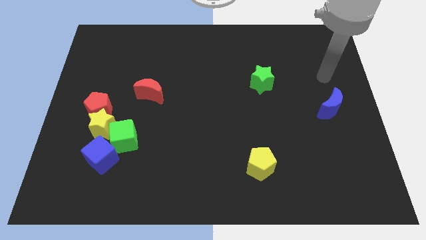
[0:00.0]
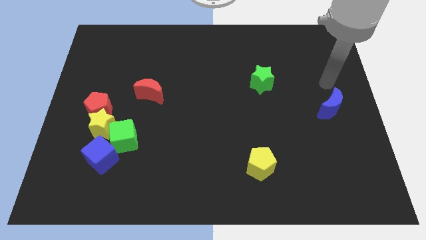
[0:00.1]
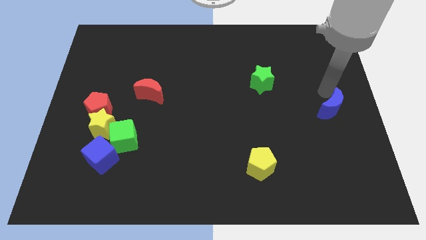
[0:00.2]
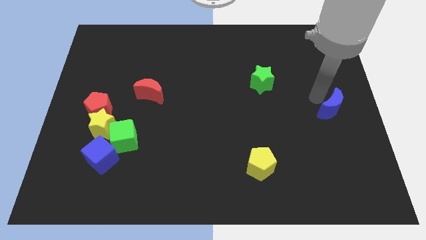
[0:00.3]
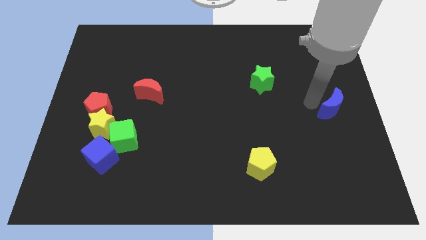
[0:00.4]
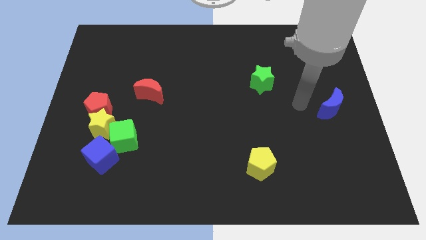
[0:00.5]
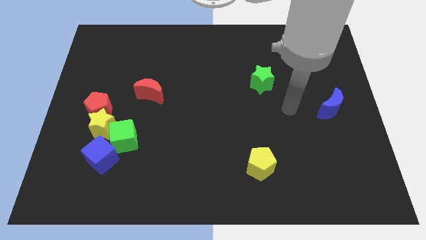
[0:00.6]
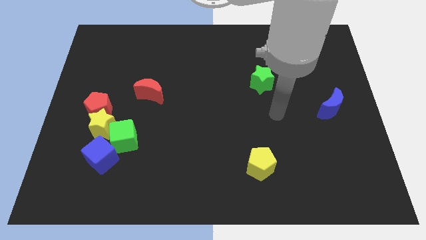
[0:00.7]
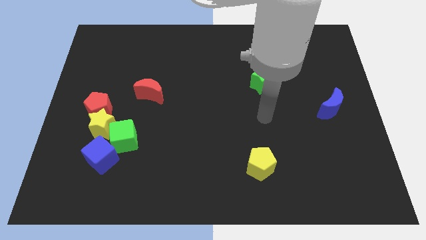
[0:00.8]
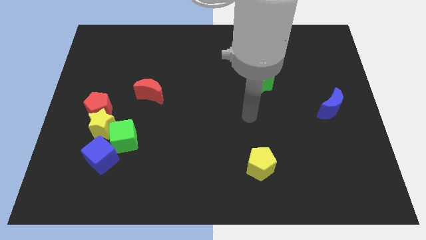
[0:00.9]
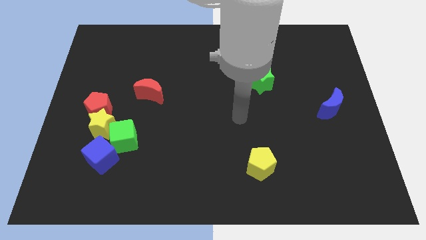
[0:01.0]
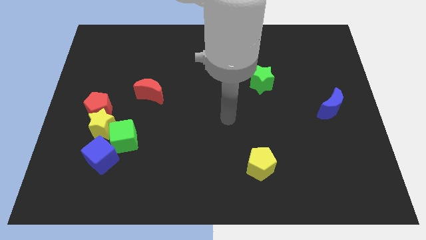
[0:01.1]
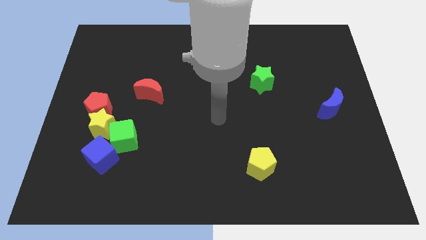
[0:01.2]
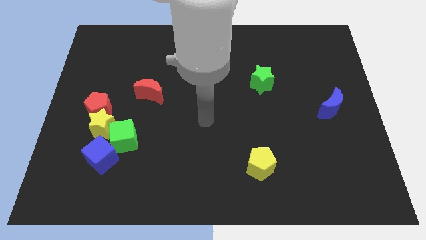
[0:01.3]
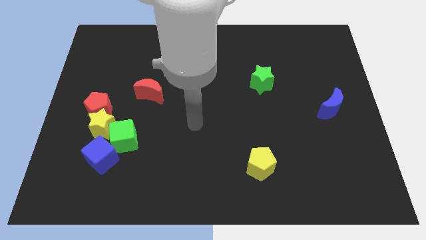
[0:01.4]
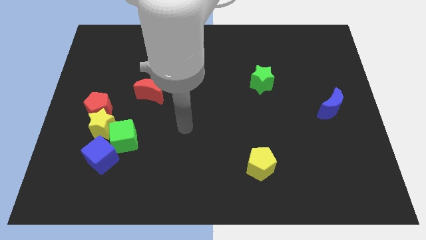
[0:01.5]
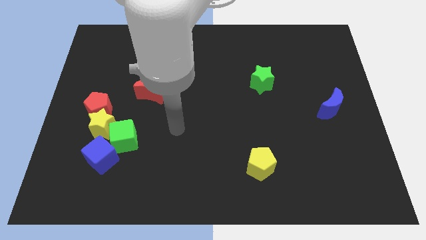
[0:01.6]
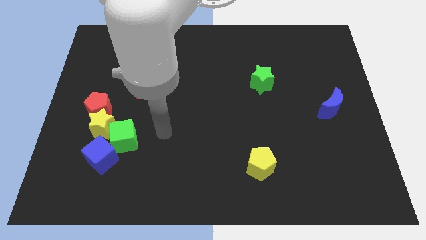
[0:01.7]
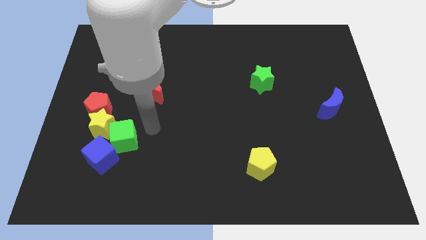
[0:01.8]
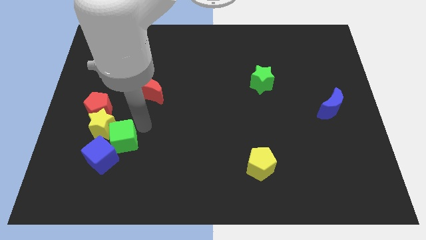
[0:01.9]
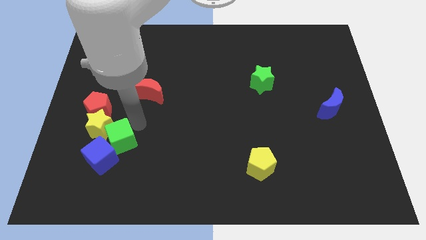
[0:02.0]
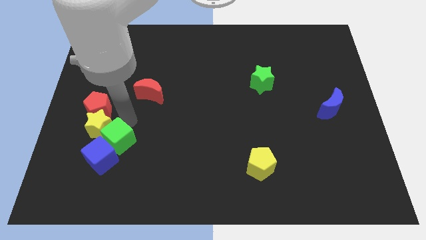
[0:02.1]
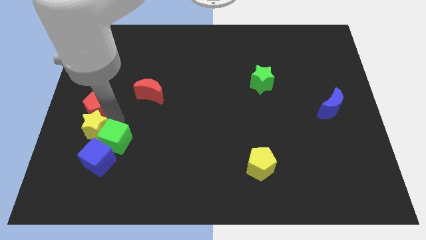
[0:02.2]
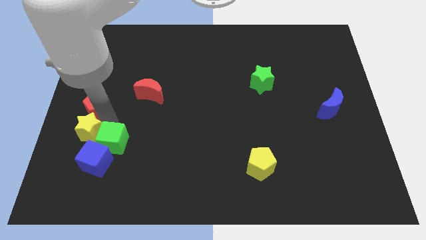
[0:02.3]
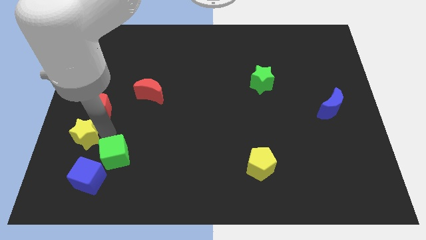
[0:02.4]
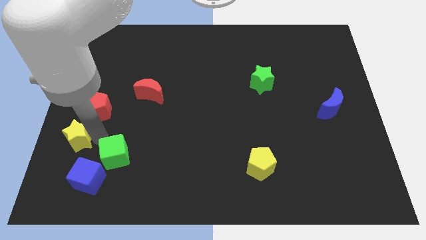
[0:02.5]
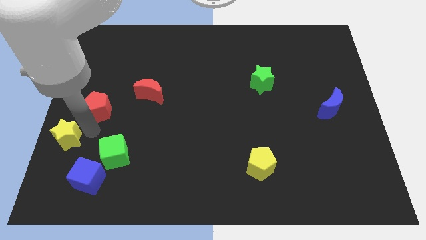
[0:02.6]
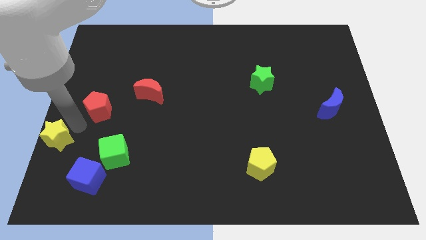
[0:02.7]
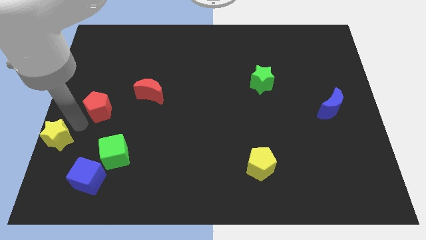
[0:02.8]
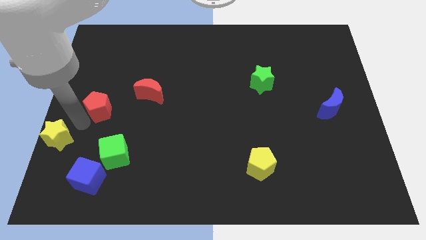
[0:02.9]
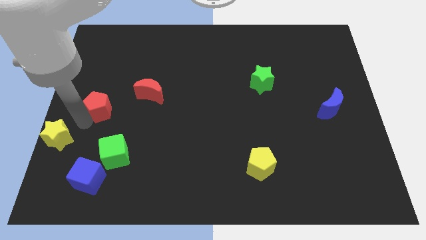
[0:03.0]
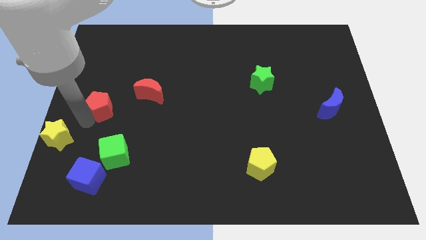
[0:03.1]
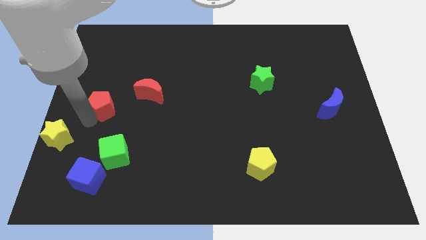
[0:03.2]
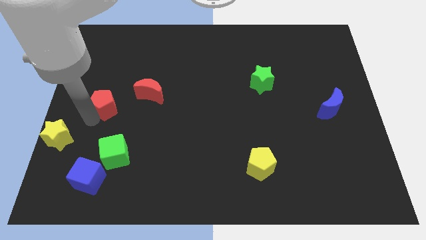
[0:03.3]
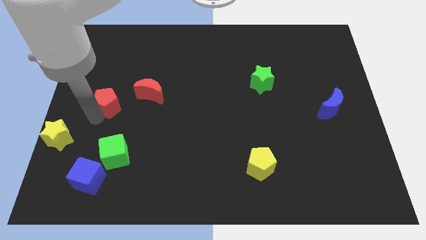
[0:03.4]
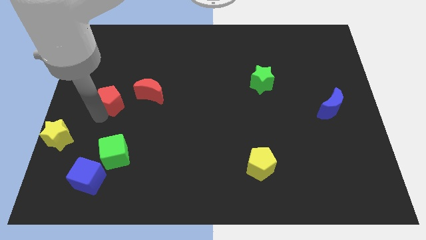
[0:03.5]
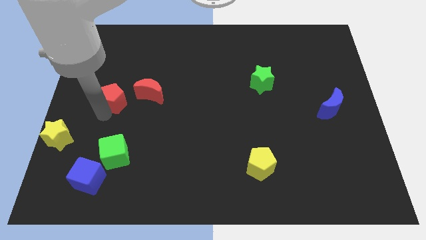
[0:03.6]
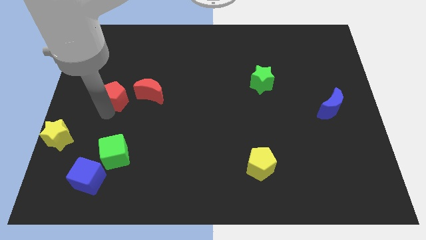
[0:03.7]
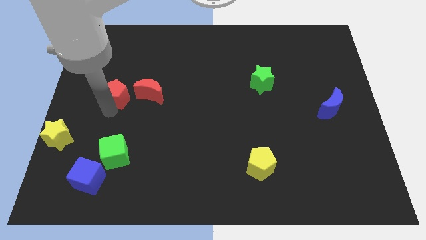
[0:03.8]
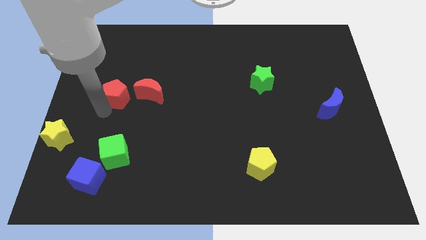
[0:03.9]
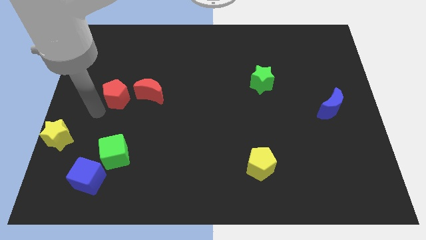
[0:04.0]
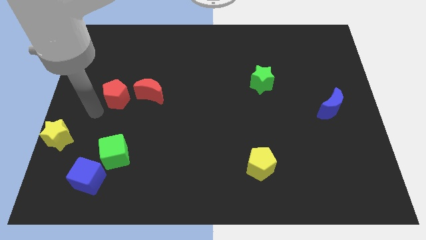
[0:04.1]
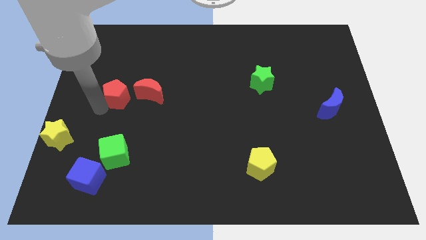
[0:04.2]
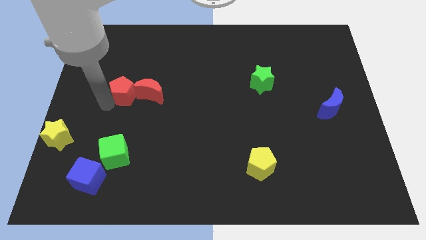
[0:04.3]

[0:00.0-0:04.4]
slightly move the red pentagon up and to the right diagonally

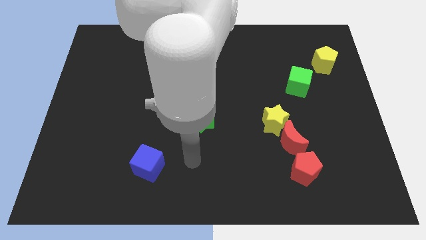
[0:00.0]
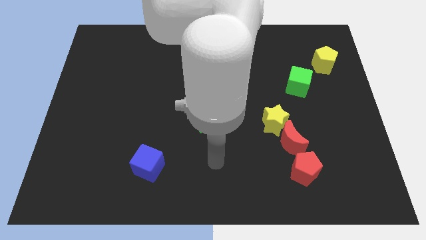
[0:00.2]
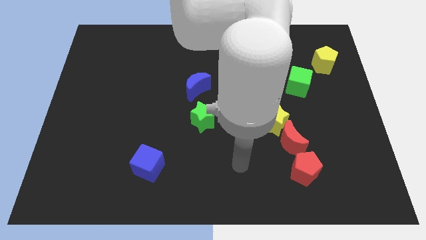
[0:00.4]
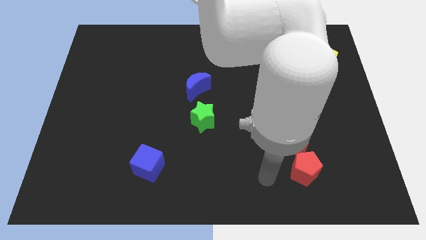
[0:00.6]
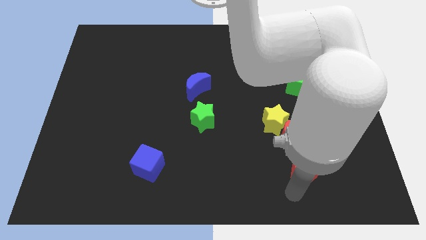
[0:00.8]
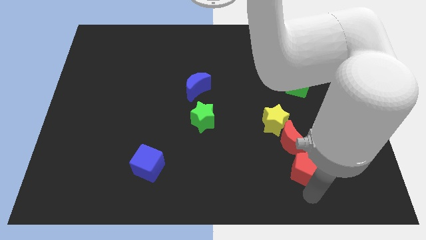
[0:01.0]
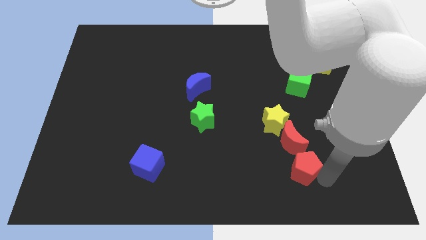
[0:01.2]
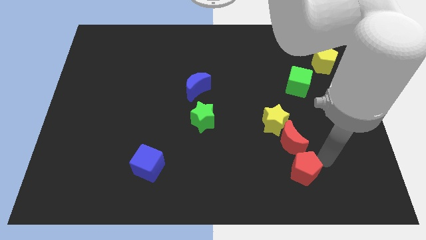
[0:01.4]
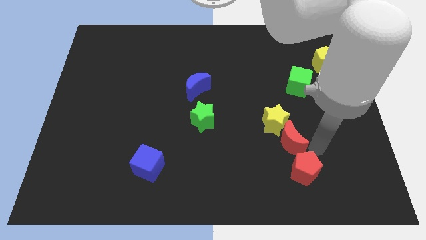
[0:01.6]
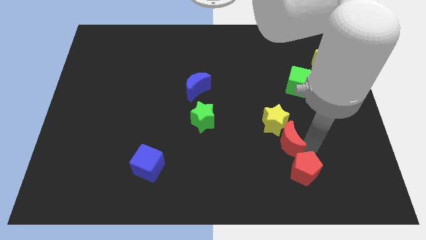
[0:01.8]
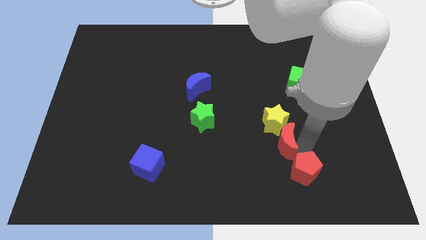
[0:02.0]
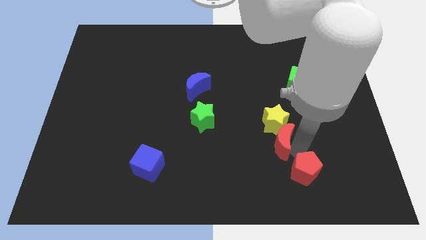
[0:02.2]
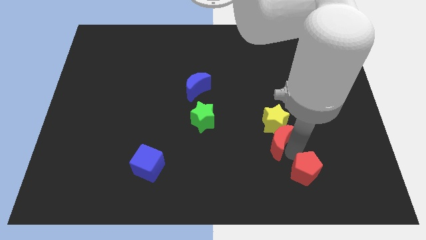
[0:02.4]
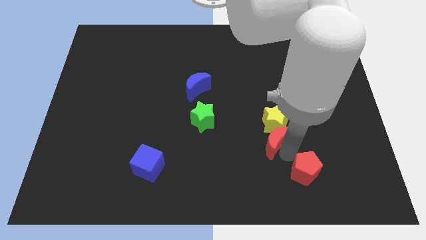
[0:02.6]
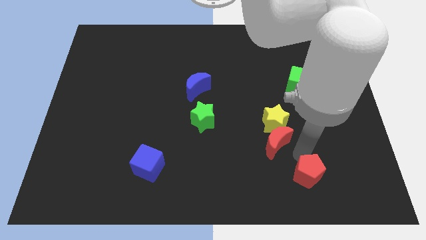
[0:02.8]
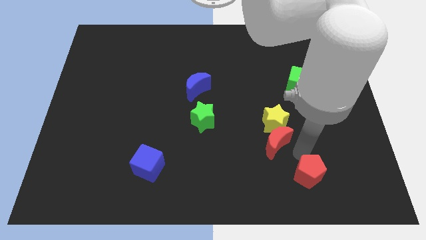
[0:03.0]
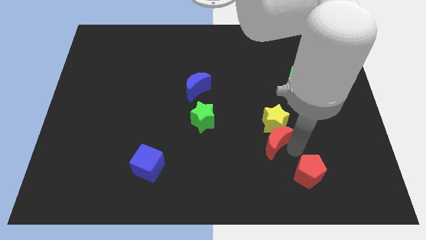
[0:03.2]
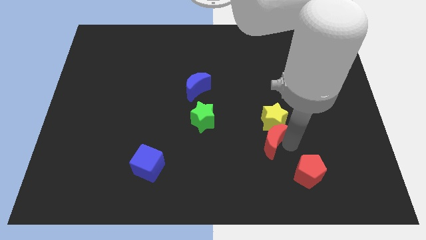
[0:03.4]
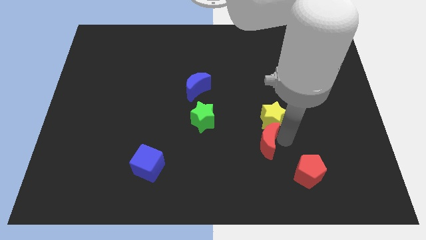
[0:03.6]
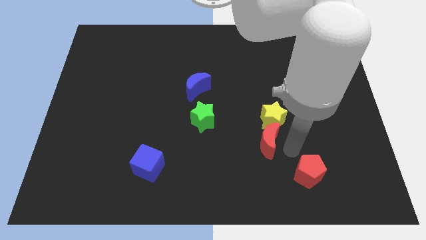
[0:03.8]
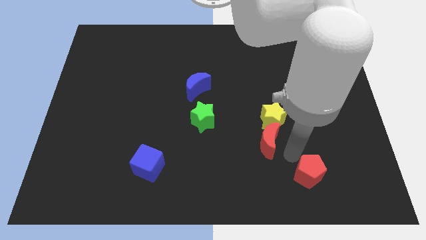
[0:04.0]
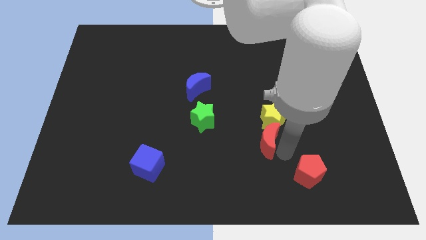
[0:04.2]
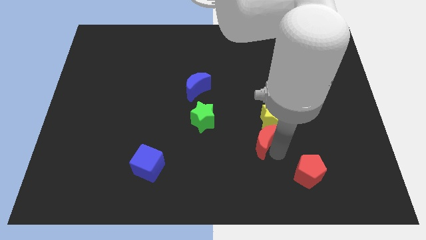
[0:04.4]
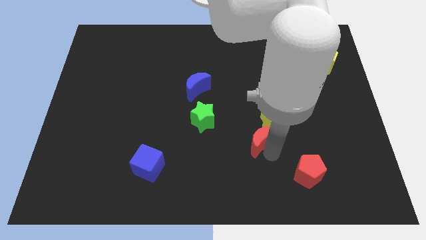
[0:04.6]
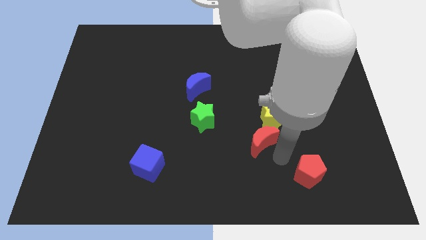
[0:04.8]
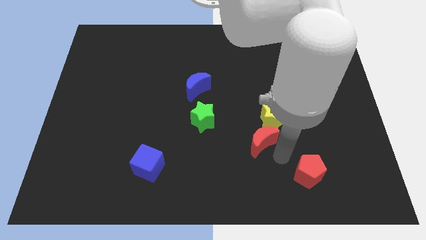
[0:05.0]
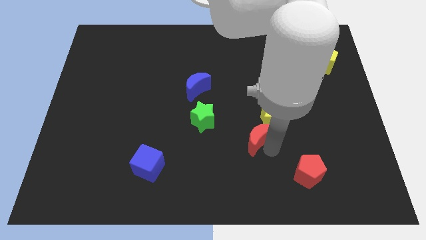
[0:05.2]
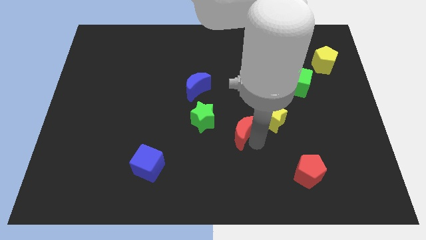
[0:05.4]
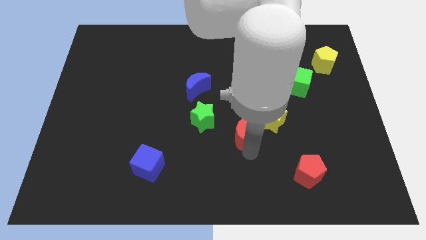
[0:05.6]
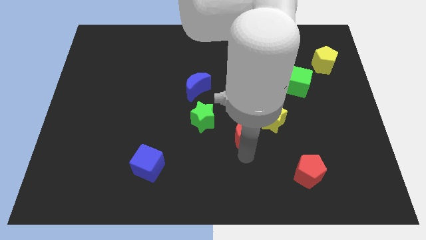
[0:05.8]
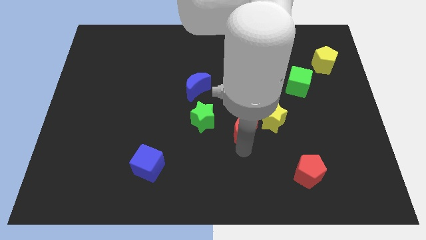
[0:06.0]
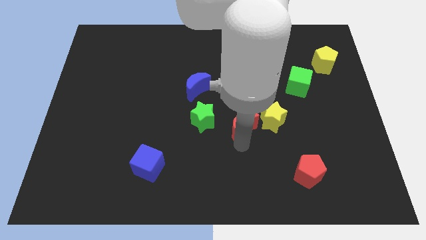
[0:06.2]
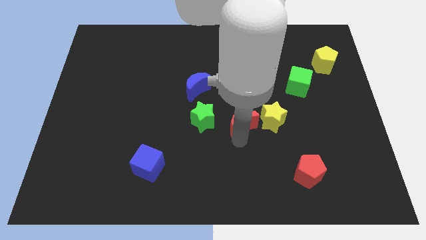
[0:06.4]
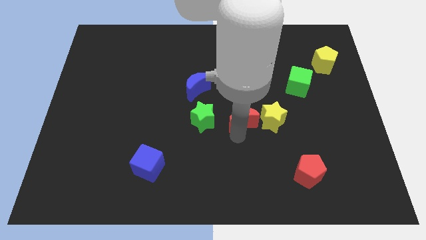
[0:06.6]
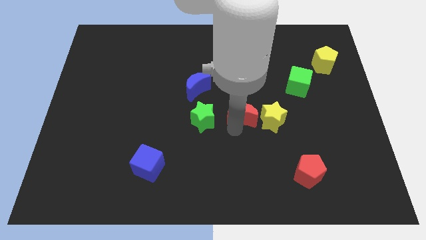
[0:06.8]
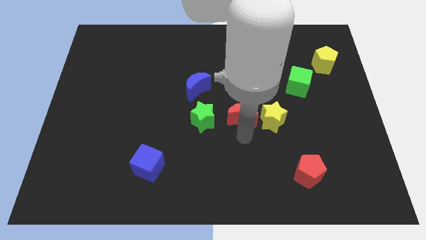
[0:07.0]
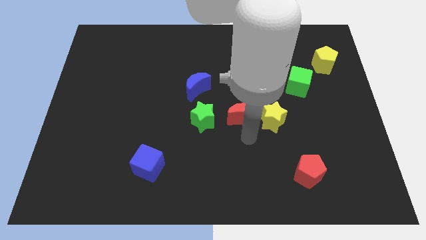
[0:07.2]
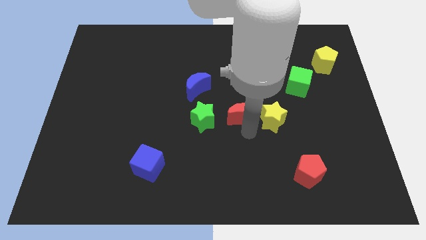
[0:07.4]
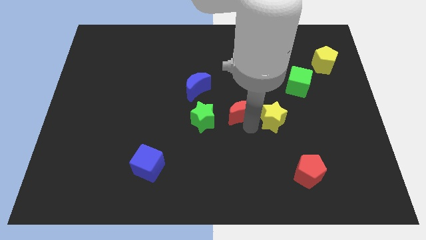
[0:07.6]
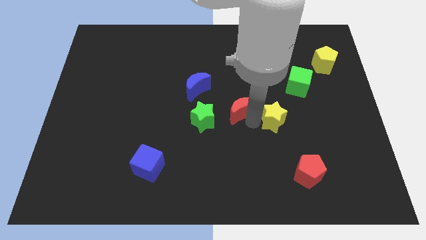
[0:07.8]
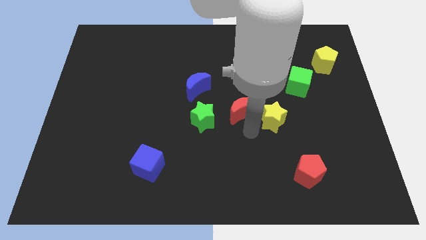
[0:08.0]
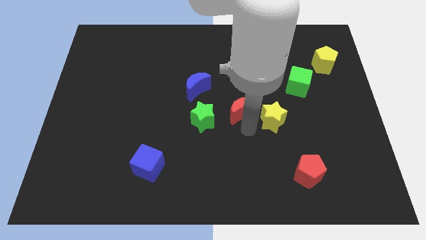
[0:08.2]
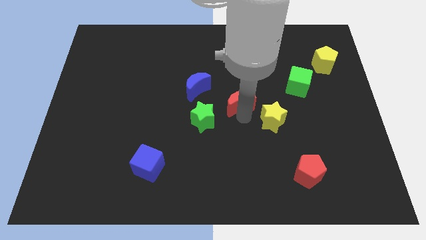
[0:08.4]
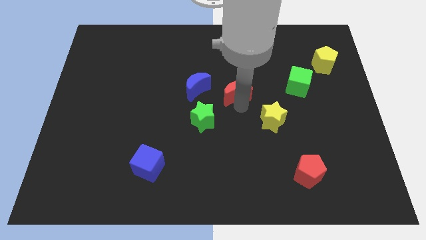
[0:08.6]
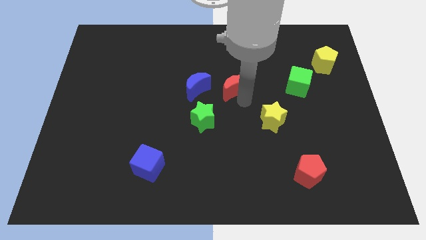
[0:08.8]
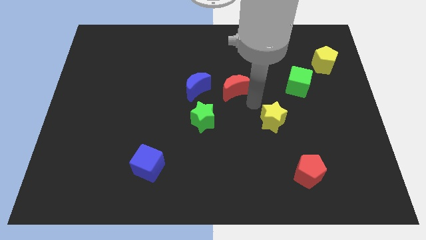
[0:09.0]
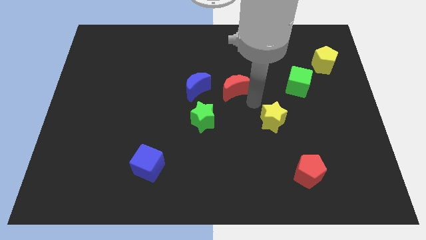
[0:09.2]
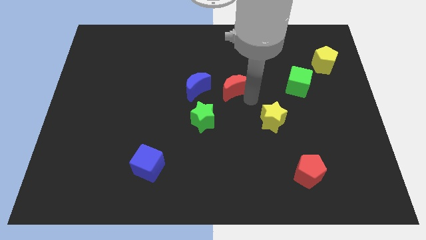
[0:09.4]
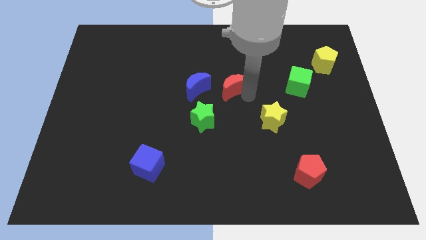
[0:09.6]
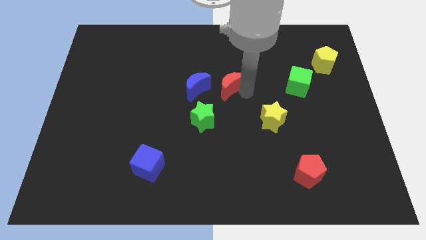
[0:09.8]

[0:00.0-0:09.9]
slide the red moon upwards and then to the left
